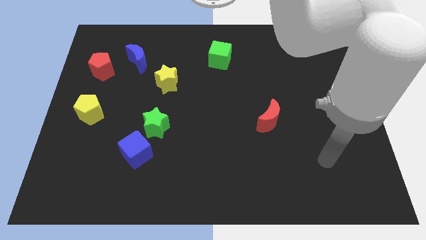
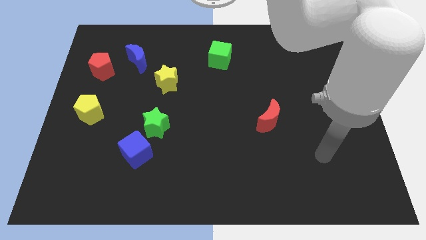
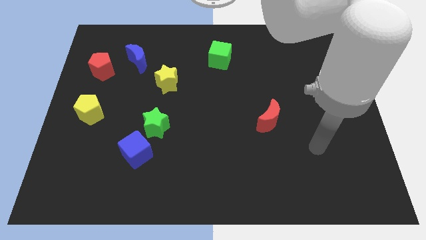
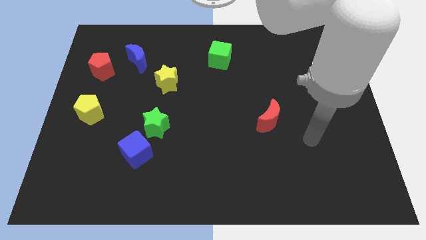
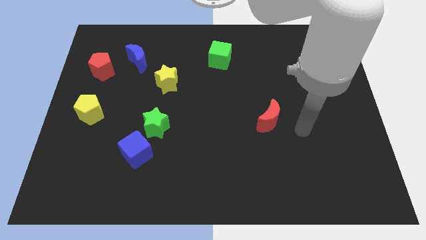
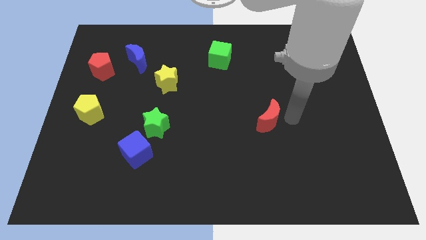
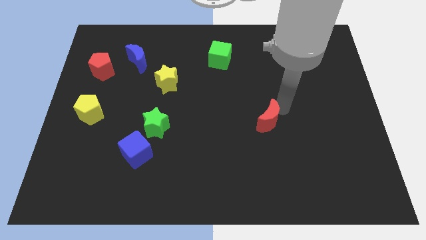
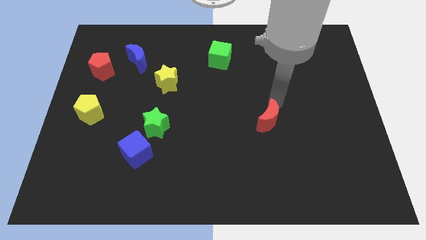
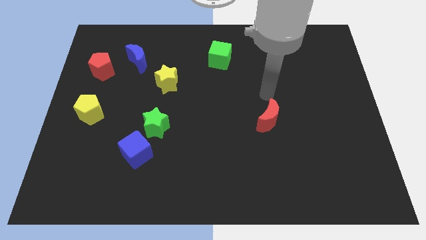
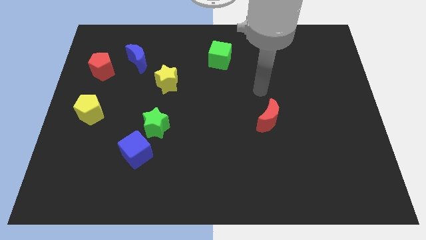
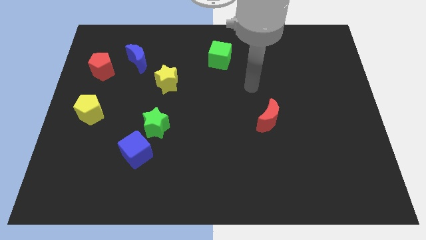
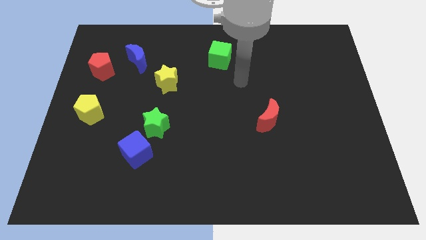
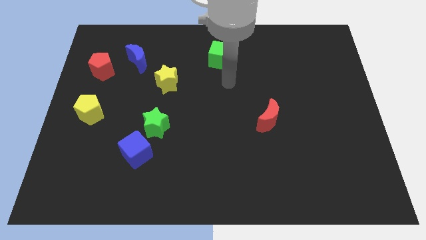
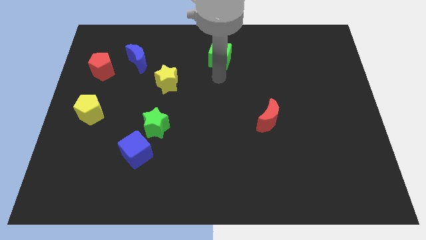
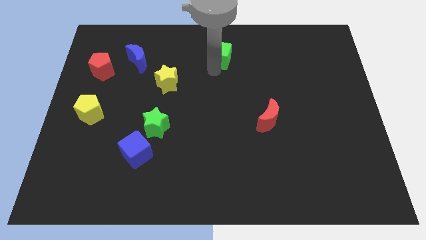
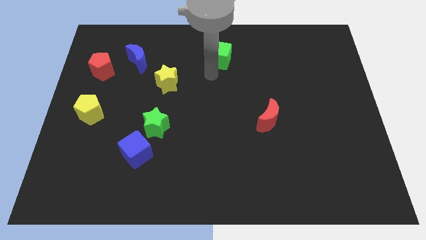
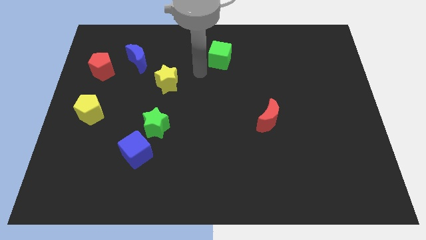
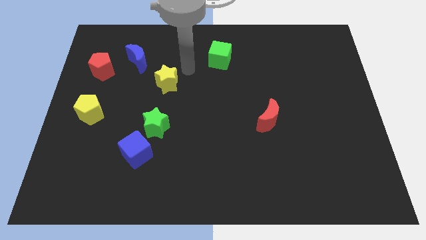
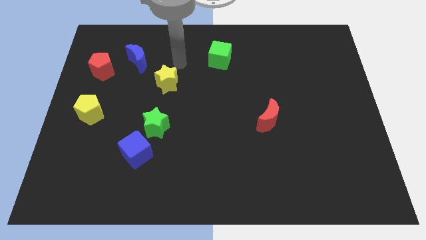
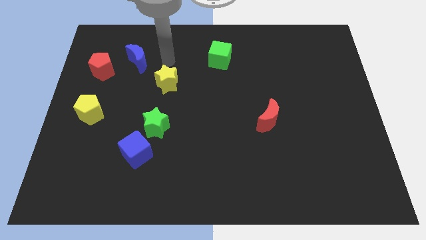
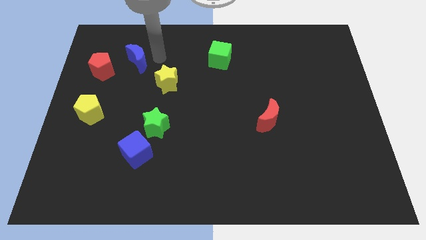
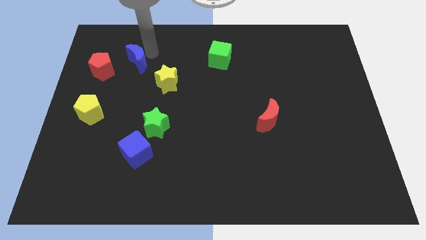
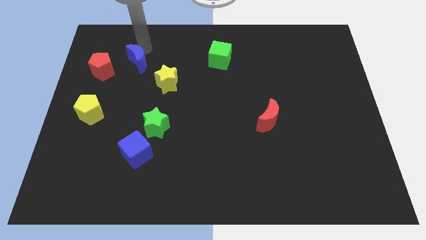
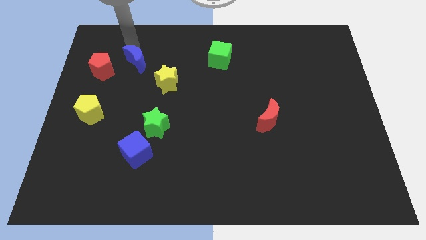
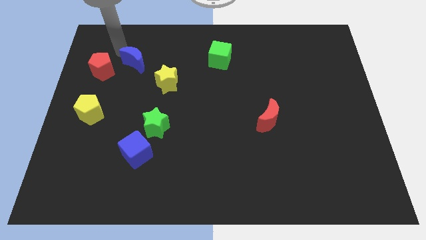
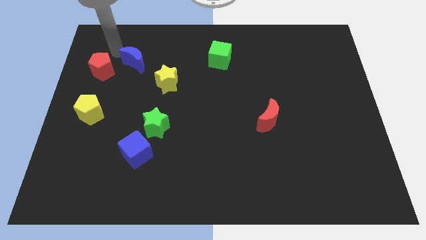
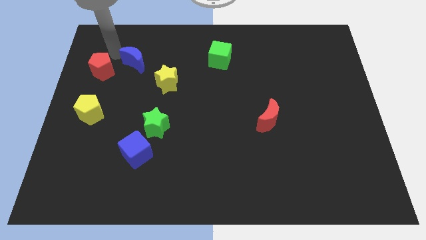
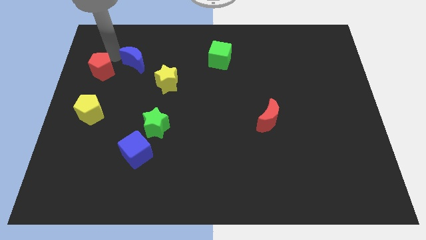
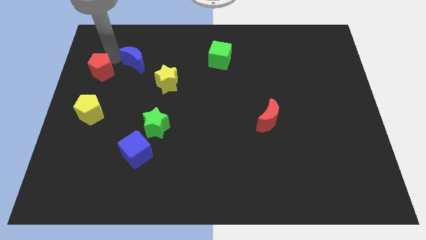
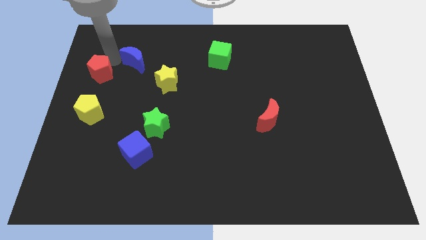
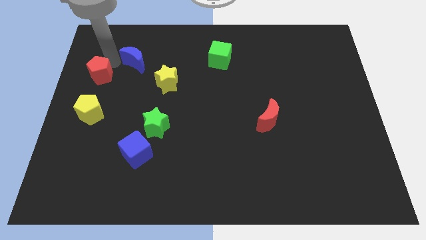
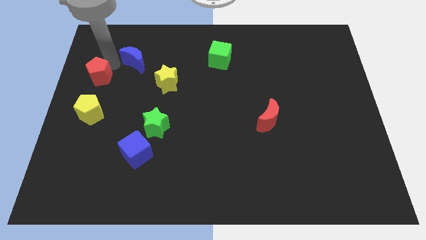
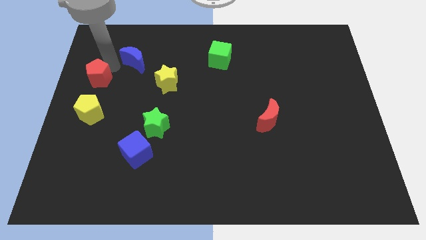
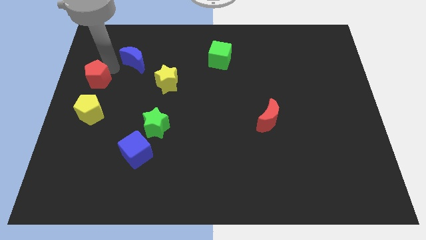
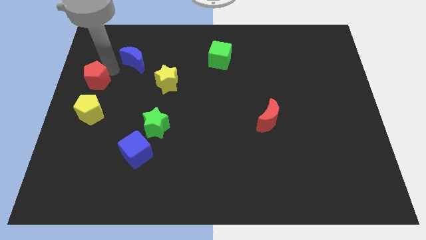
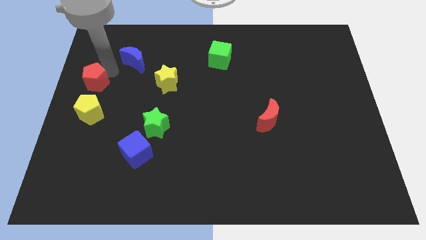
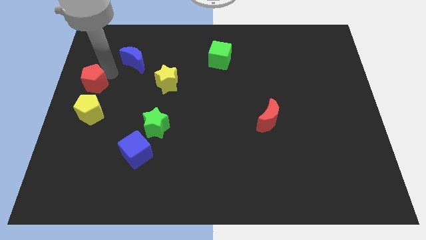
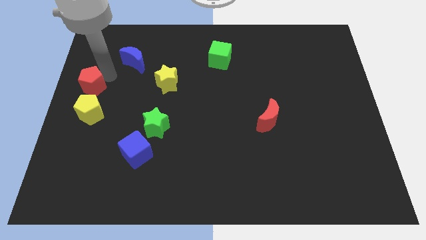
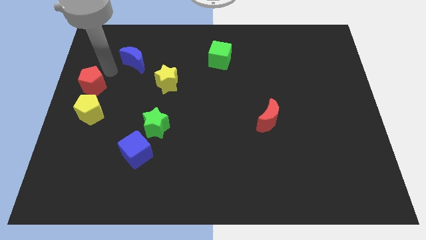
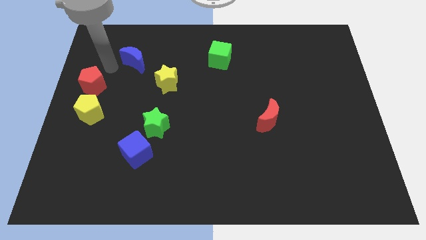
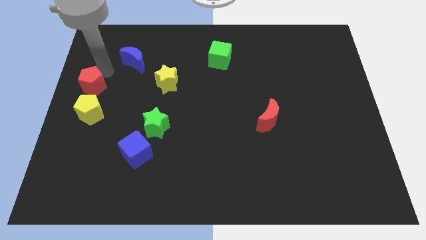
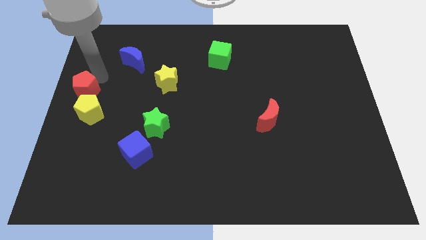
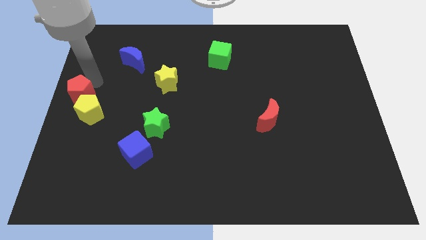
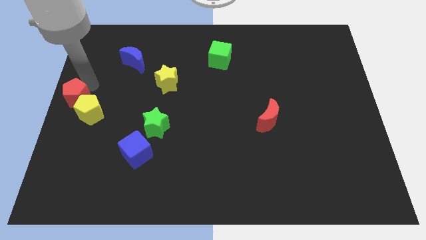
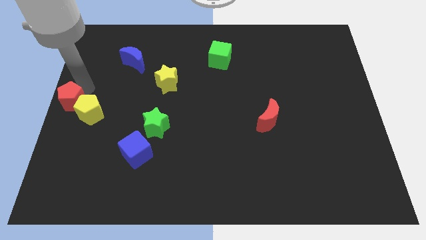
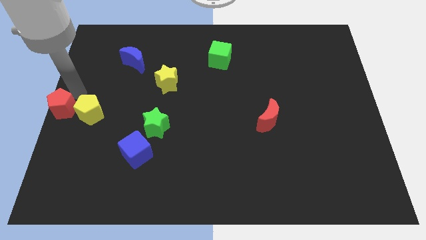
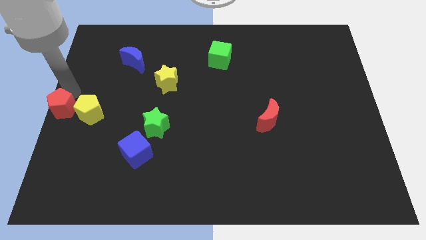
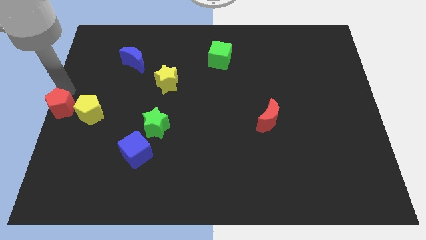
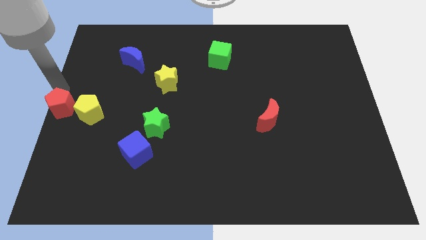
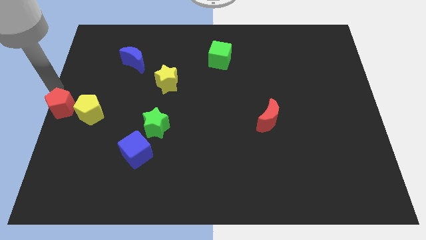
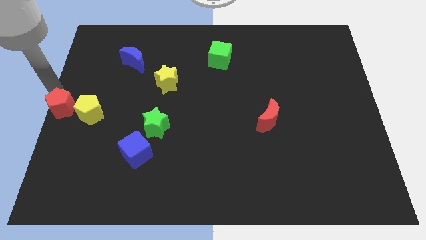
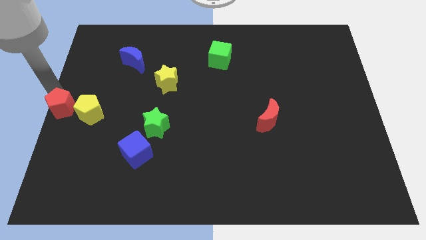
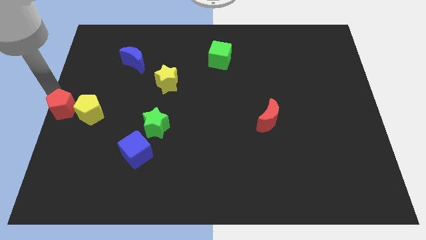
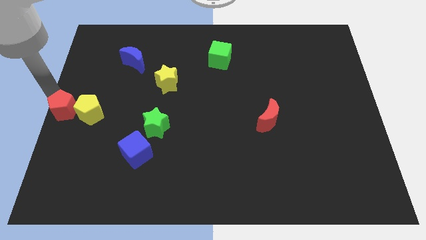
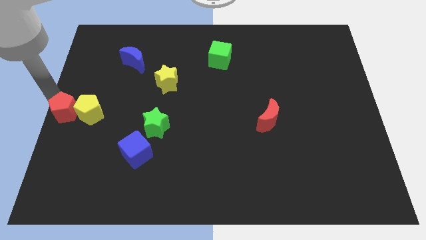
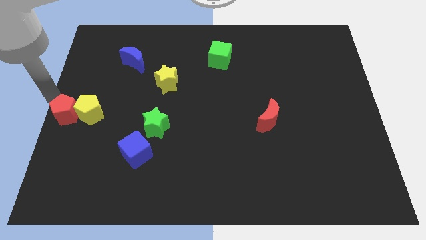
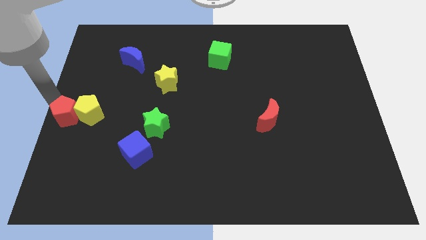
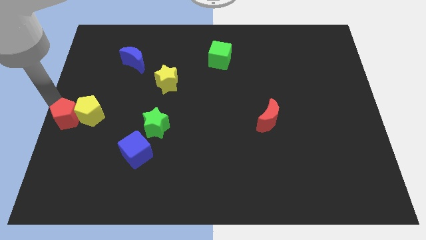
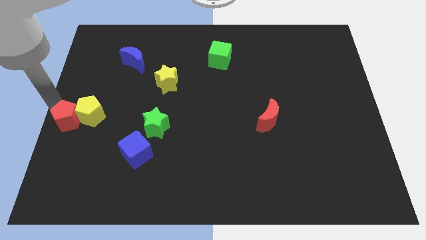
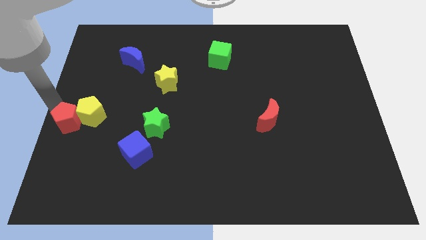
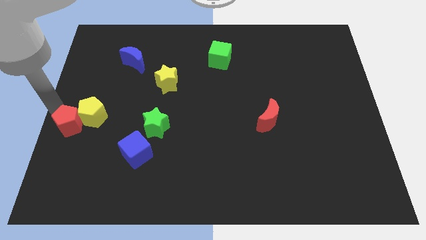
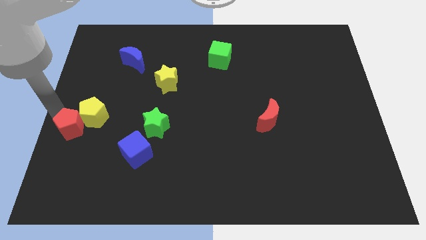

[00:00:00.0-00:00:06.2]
push the red pentagon to the bottom side of the yellow pentagon

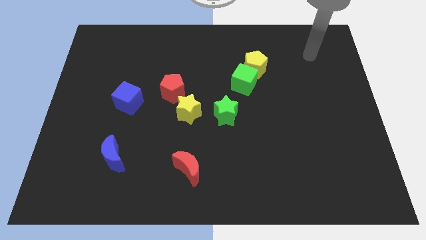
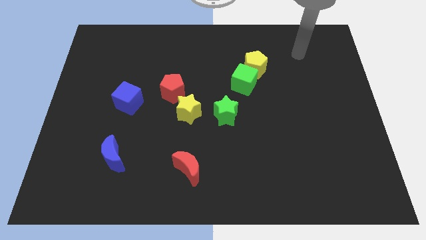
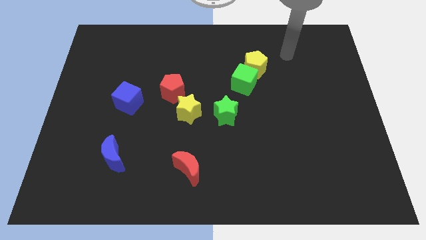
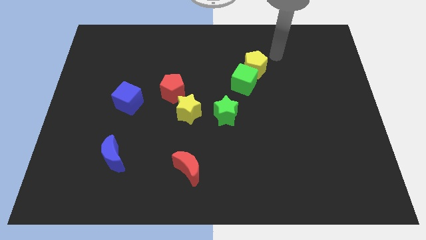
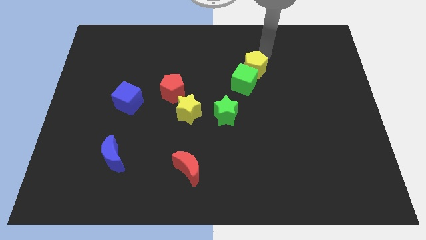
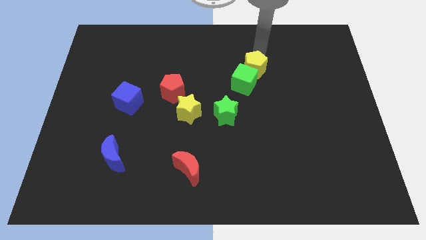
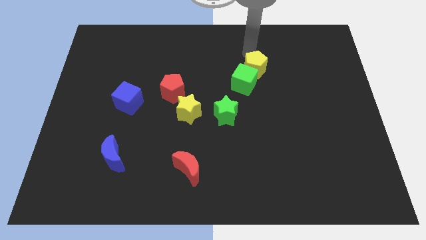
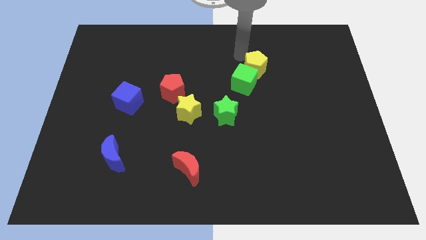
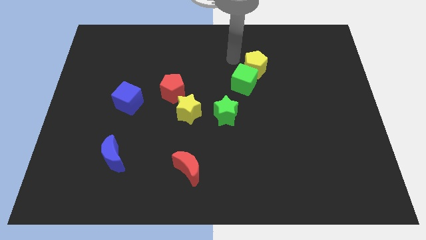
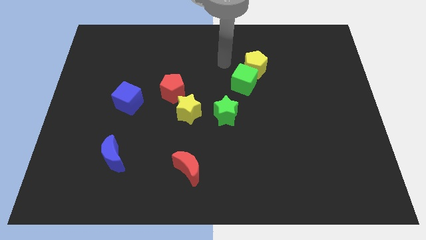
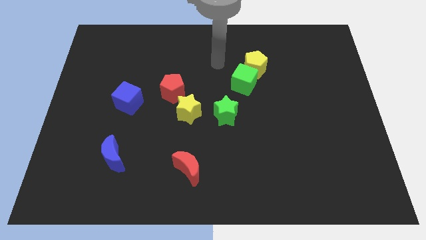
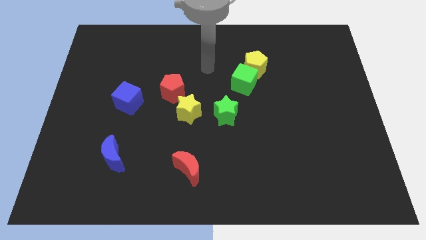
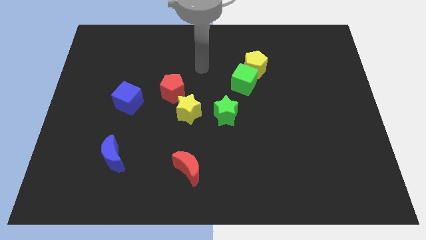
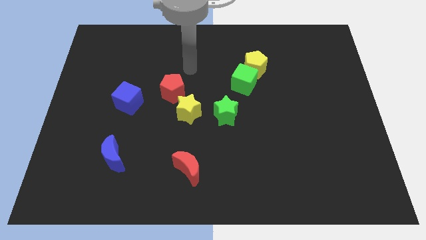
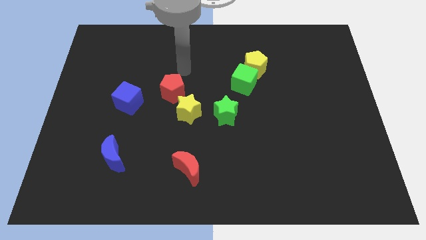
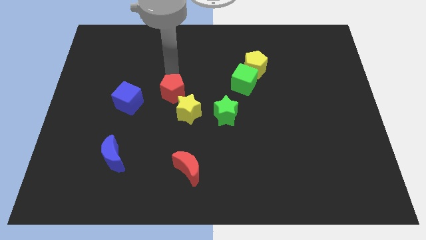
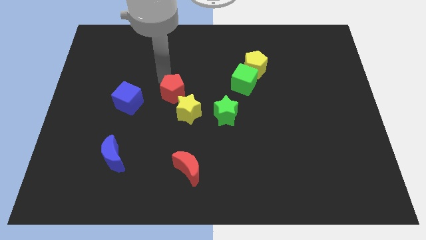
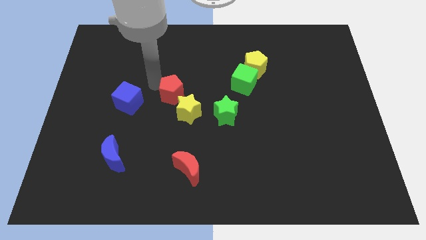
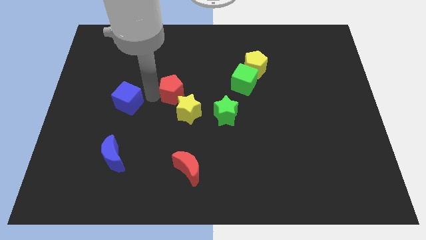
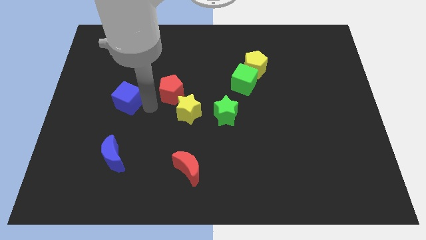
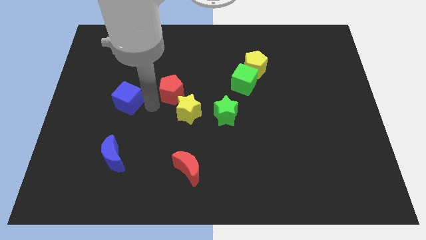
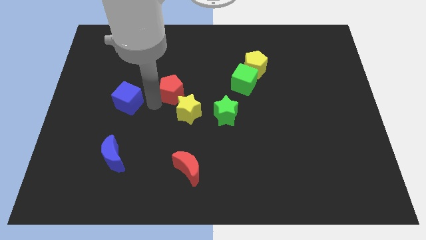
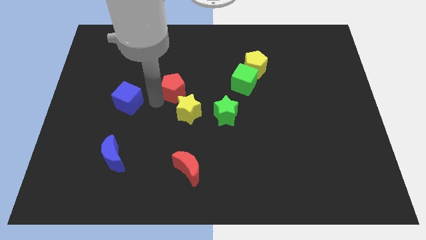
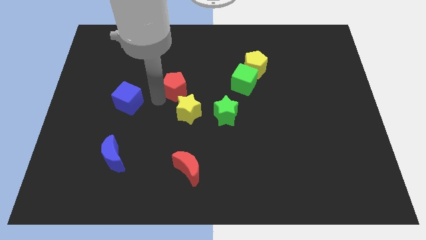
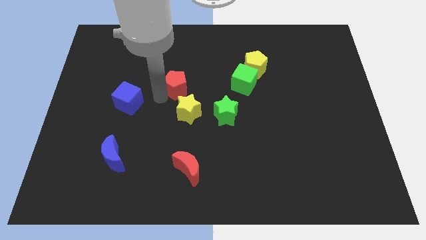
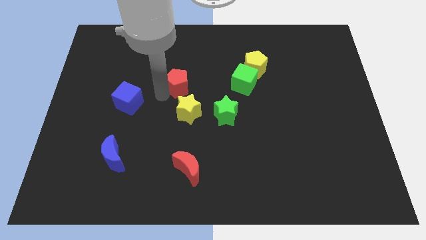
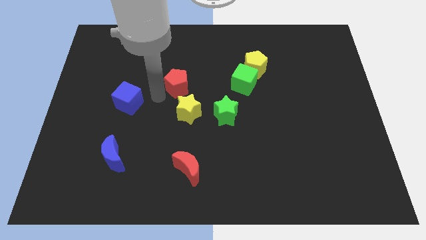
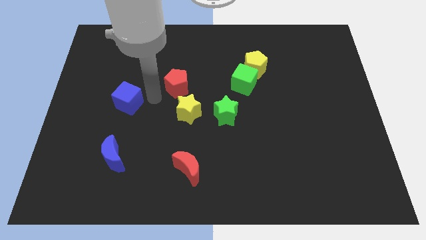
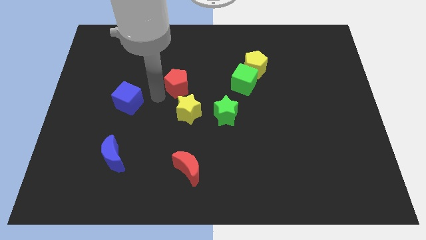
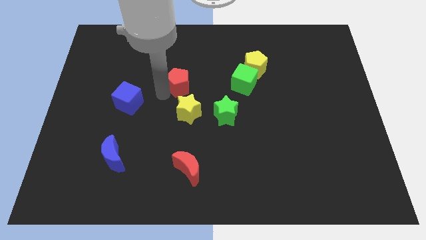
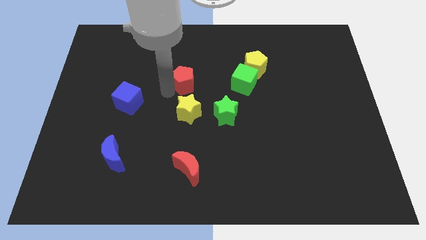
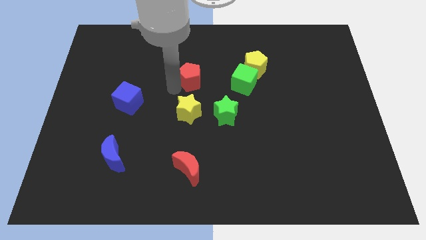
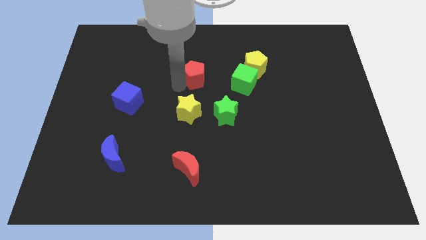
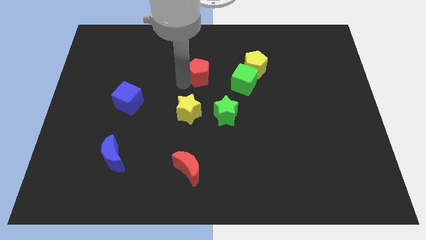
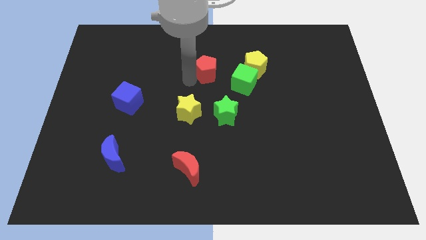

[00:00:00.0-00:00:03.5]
slide the red pentagon to the top left of the green cube
